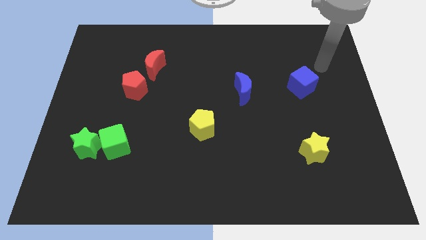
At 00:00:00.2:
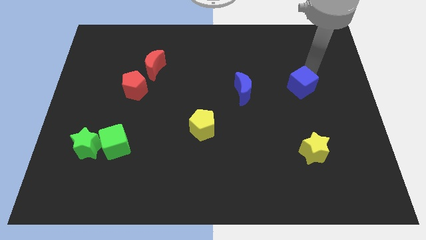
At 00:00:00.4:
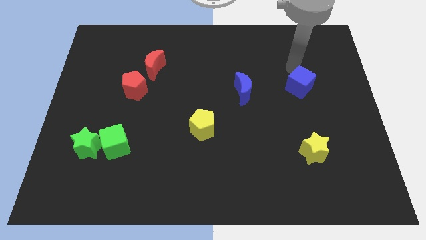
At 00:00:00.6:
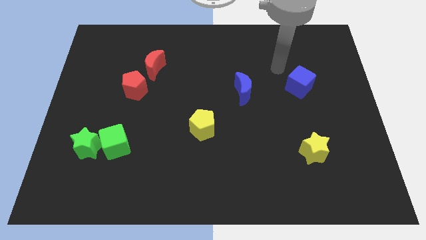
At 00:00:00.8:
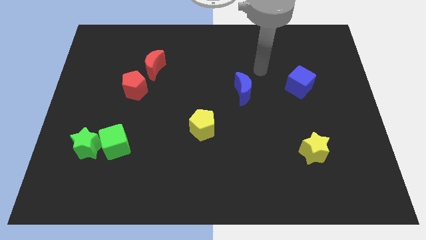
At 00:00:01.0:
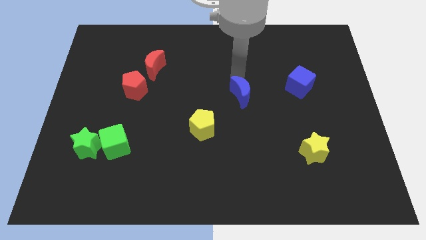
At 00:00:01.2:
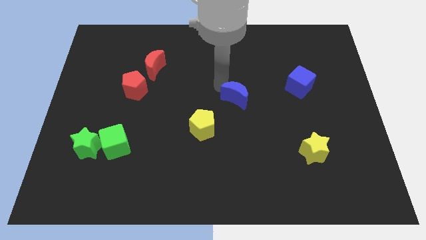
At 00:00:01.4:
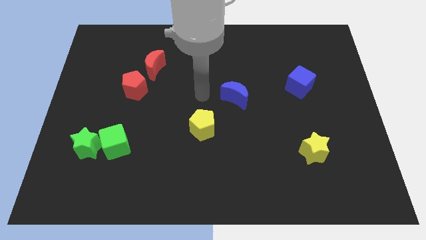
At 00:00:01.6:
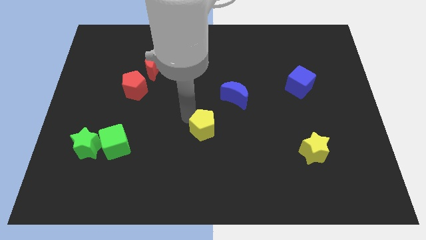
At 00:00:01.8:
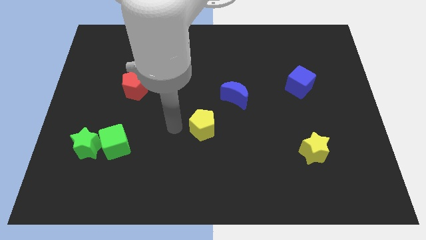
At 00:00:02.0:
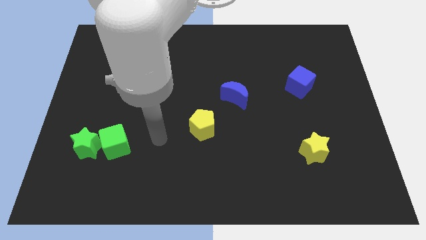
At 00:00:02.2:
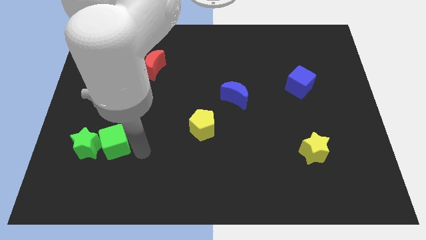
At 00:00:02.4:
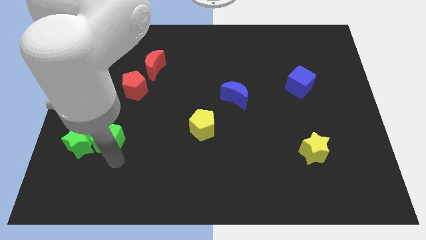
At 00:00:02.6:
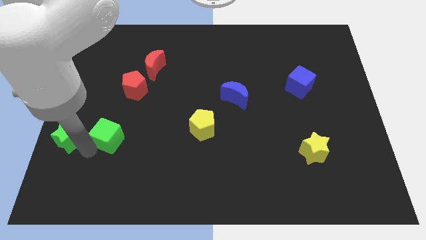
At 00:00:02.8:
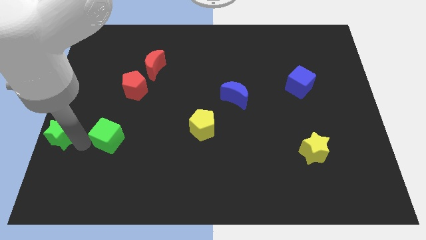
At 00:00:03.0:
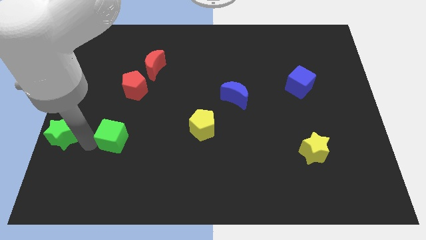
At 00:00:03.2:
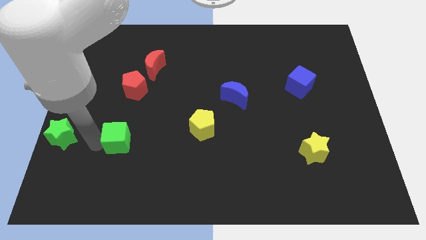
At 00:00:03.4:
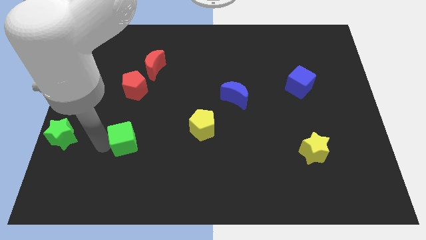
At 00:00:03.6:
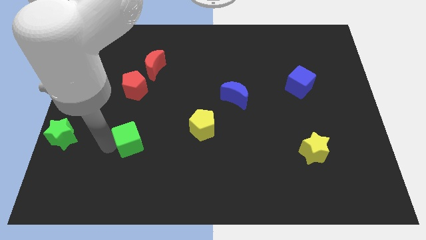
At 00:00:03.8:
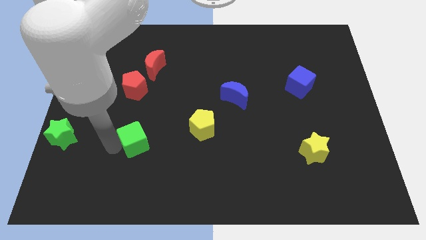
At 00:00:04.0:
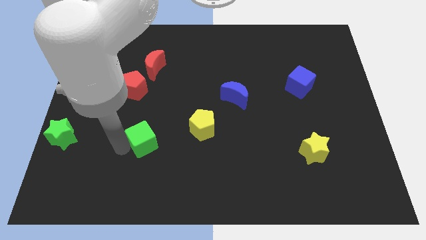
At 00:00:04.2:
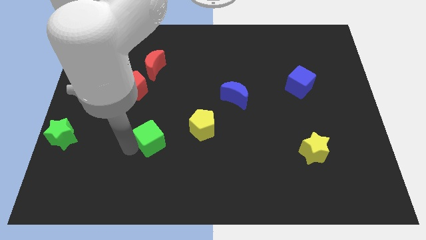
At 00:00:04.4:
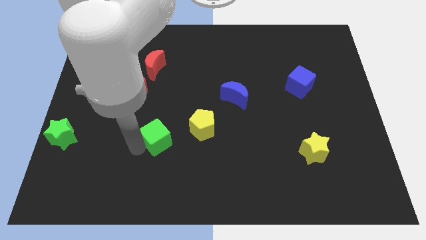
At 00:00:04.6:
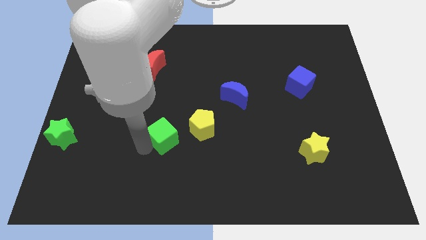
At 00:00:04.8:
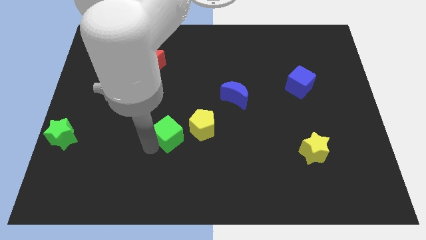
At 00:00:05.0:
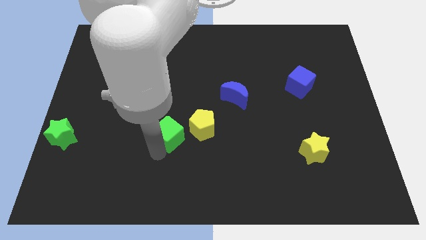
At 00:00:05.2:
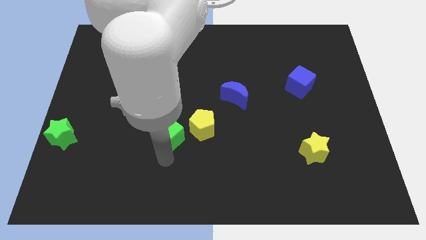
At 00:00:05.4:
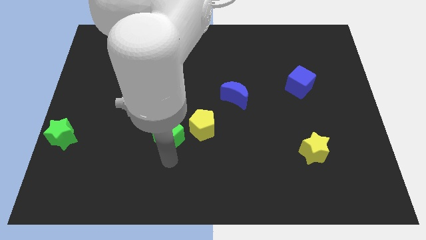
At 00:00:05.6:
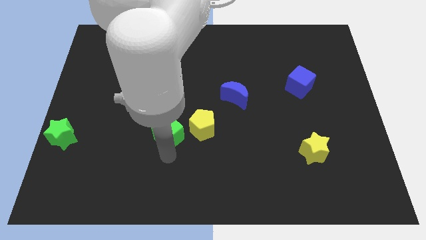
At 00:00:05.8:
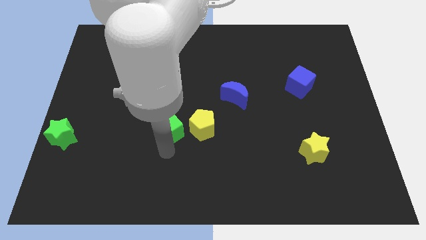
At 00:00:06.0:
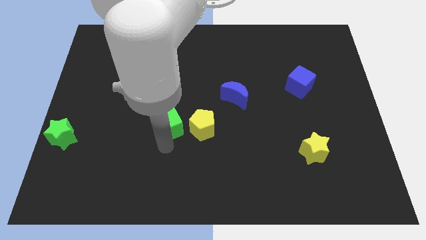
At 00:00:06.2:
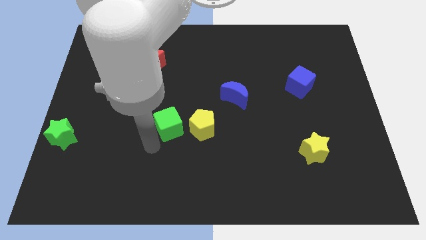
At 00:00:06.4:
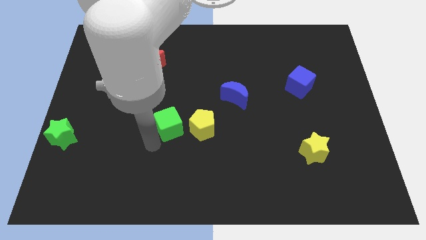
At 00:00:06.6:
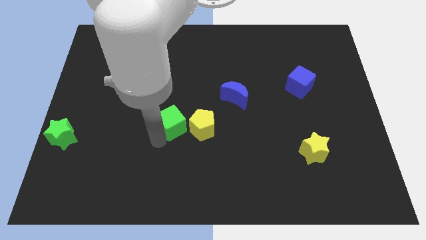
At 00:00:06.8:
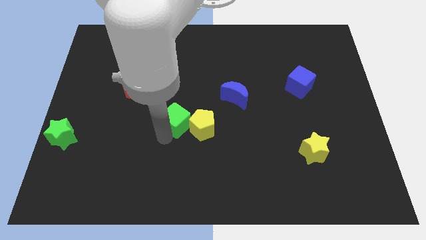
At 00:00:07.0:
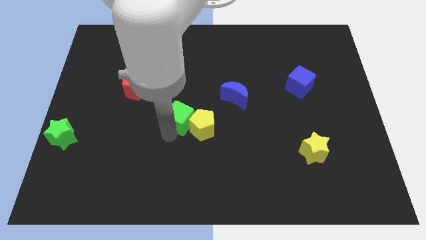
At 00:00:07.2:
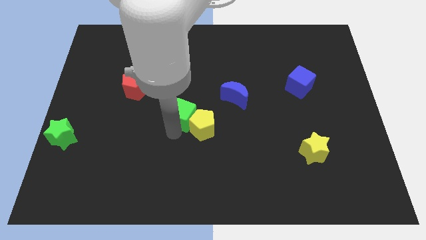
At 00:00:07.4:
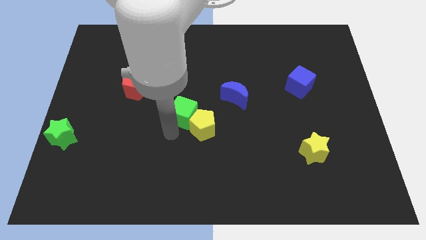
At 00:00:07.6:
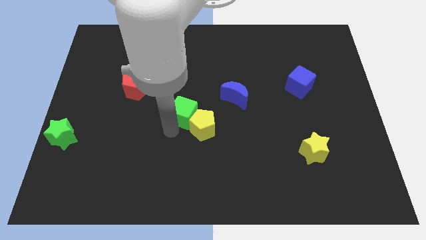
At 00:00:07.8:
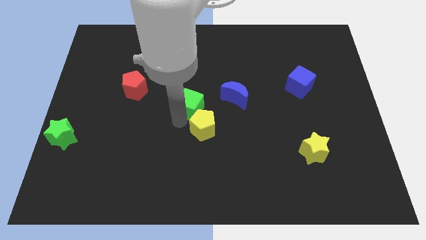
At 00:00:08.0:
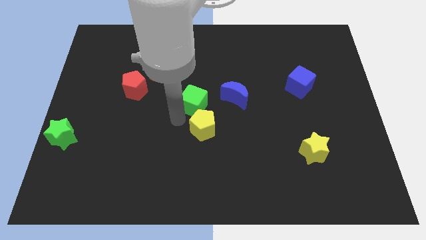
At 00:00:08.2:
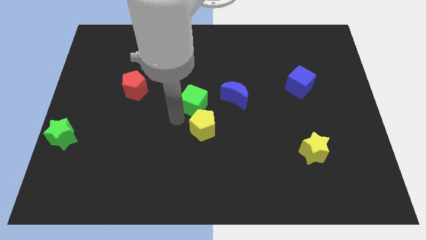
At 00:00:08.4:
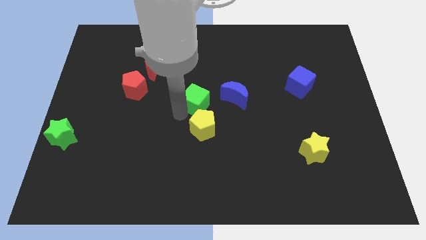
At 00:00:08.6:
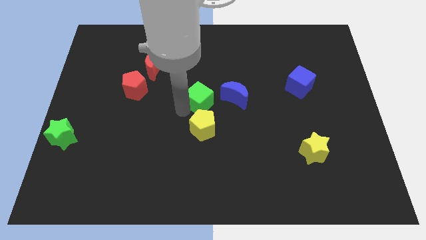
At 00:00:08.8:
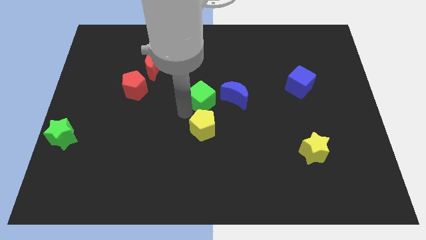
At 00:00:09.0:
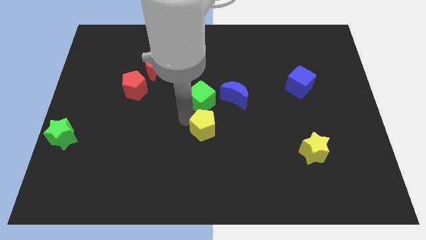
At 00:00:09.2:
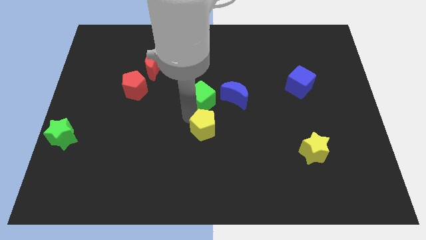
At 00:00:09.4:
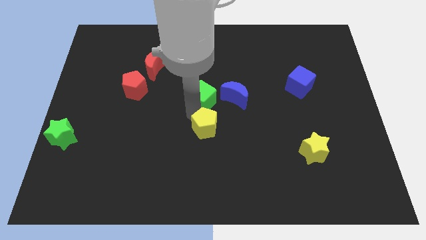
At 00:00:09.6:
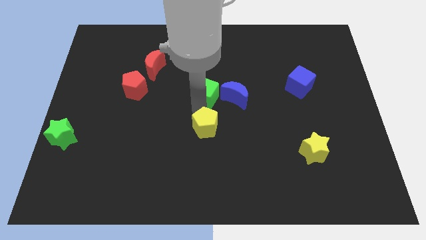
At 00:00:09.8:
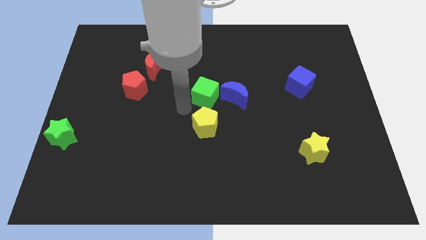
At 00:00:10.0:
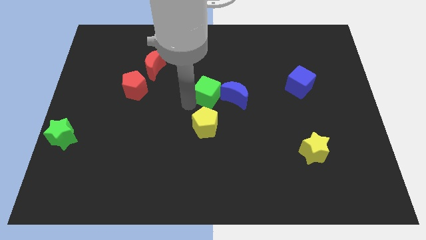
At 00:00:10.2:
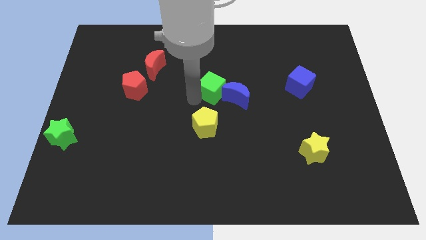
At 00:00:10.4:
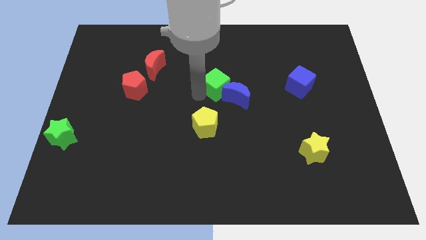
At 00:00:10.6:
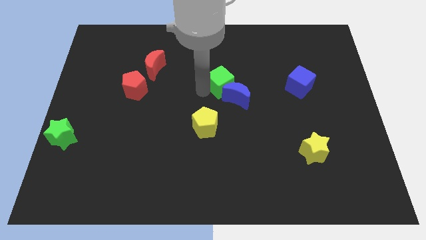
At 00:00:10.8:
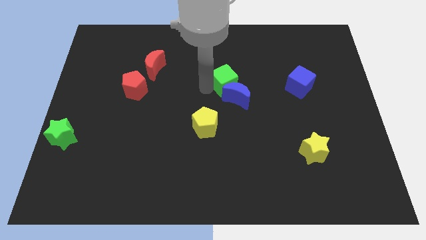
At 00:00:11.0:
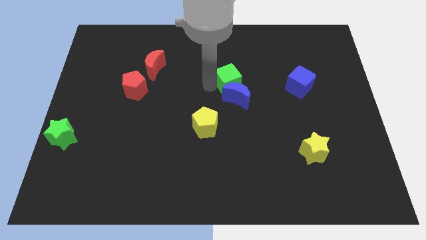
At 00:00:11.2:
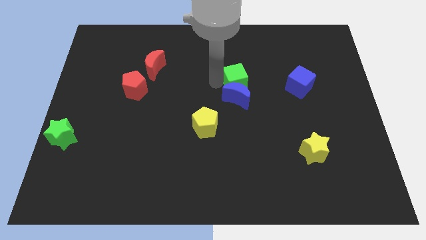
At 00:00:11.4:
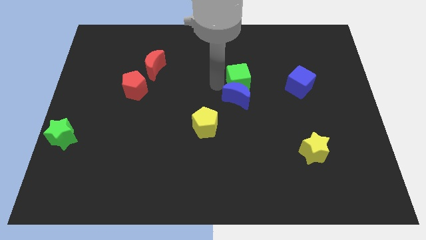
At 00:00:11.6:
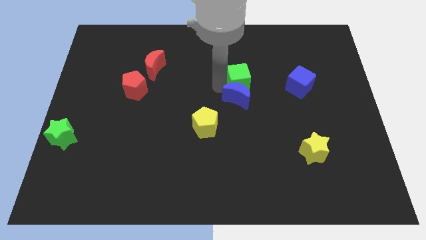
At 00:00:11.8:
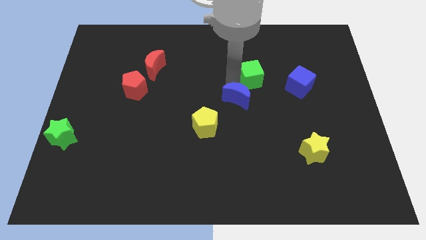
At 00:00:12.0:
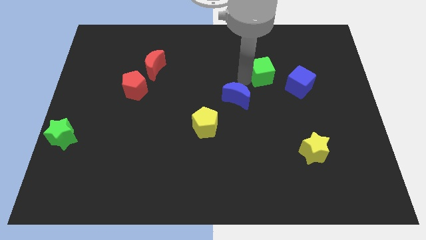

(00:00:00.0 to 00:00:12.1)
slide the green cube to the top left of the blue cube

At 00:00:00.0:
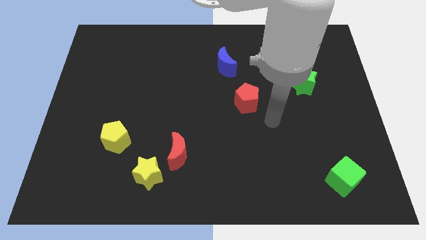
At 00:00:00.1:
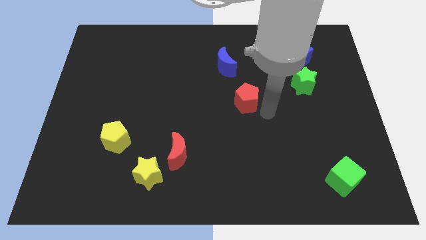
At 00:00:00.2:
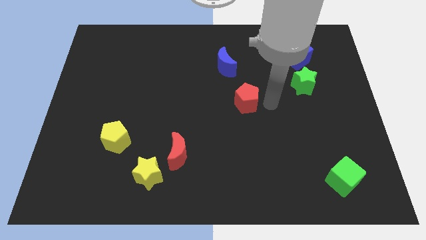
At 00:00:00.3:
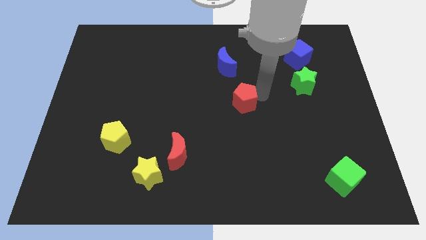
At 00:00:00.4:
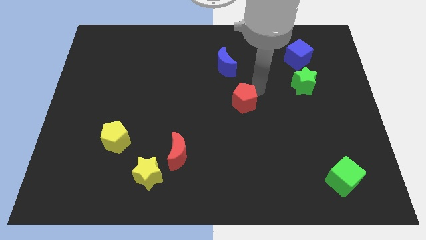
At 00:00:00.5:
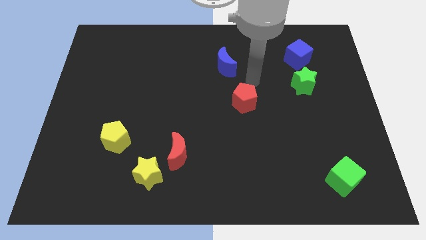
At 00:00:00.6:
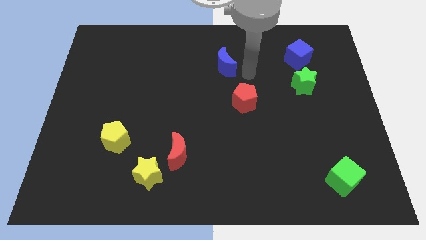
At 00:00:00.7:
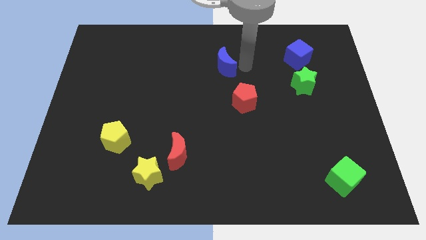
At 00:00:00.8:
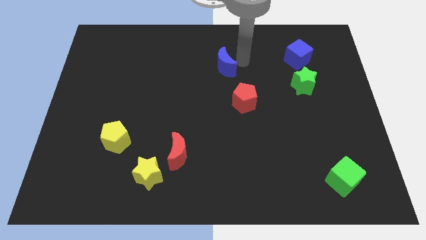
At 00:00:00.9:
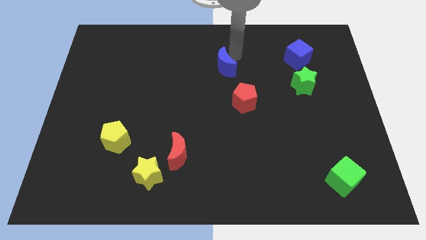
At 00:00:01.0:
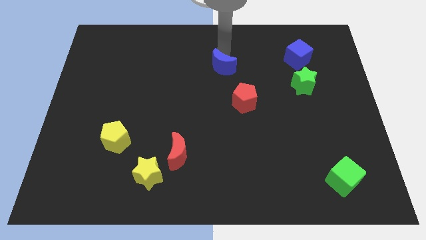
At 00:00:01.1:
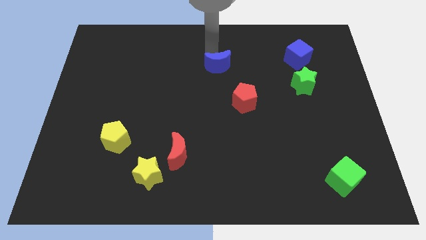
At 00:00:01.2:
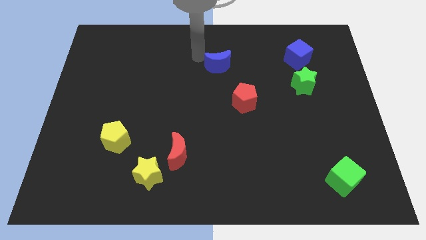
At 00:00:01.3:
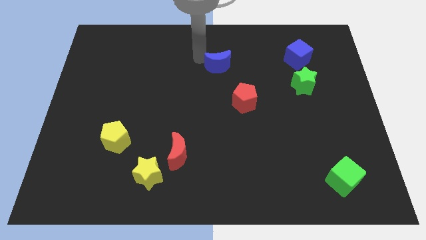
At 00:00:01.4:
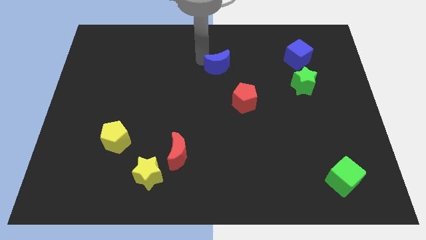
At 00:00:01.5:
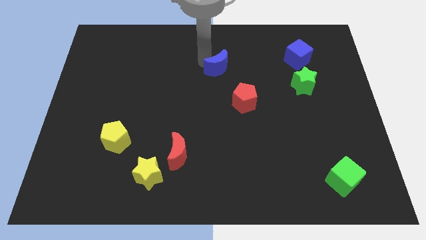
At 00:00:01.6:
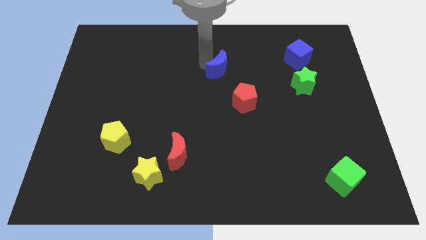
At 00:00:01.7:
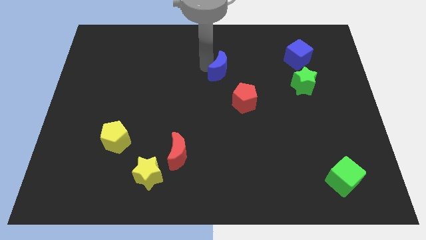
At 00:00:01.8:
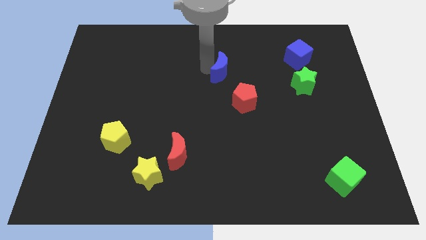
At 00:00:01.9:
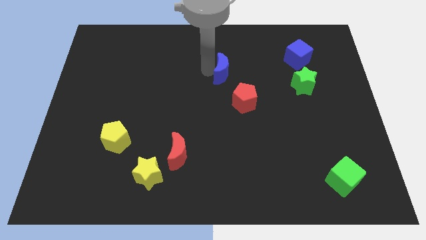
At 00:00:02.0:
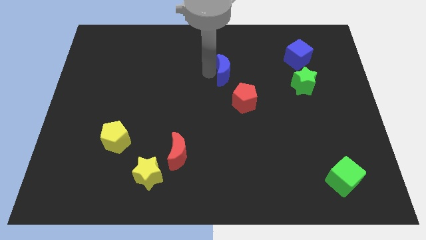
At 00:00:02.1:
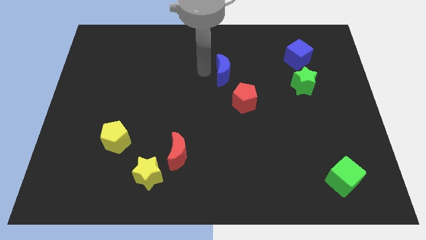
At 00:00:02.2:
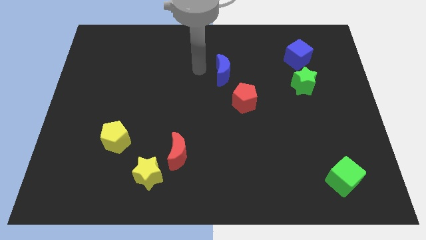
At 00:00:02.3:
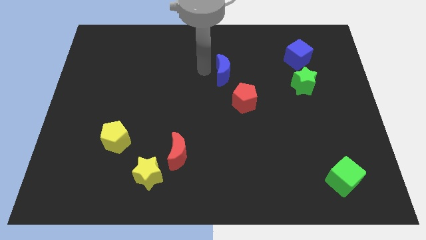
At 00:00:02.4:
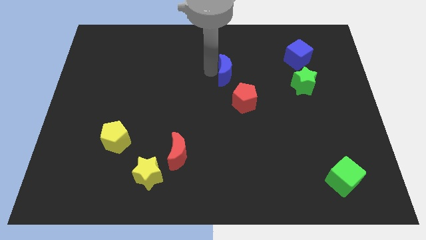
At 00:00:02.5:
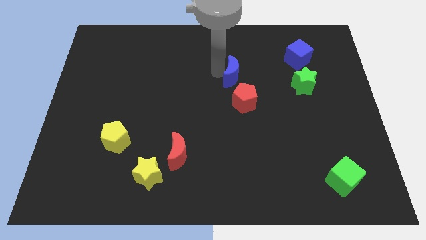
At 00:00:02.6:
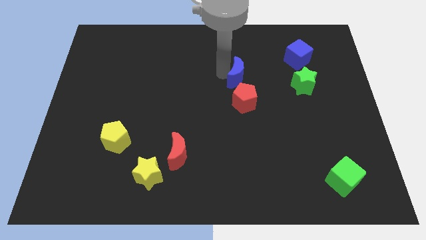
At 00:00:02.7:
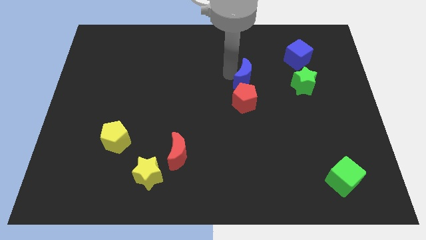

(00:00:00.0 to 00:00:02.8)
put the blue moon to the top right side of the red pentagon
